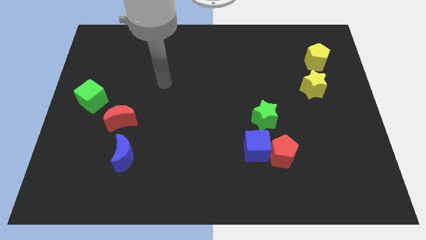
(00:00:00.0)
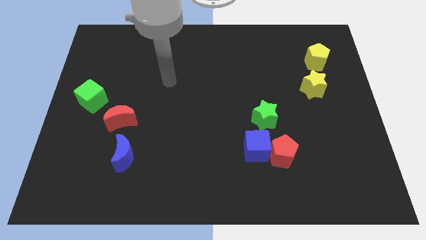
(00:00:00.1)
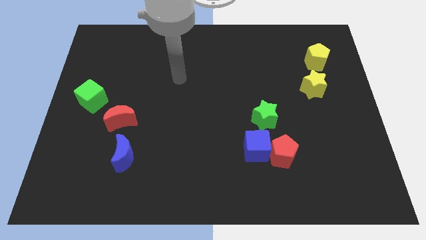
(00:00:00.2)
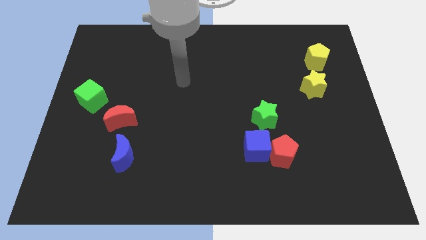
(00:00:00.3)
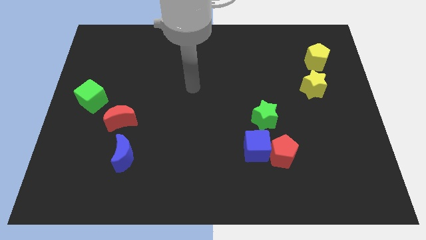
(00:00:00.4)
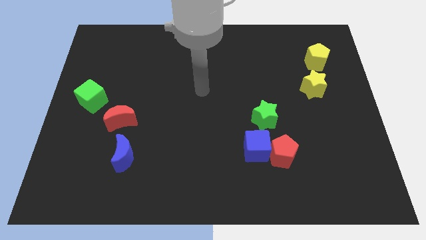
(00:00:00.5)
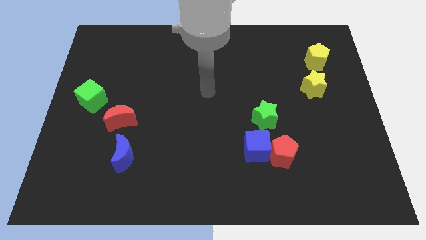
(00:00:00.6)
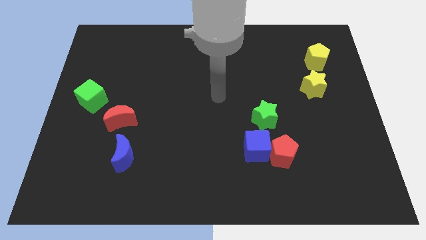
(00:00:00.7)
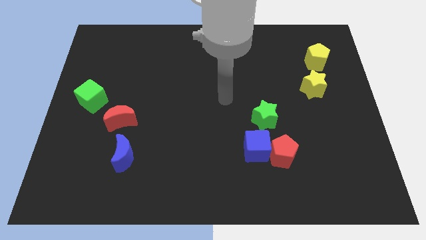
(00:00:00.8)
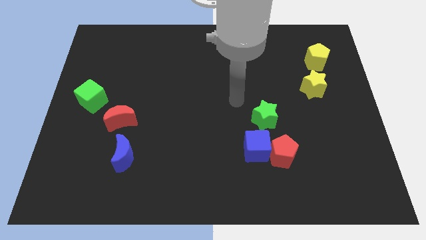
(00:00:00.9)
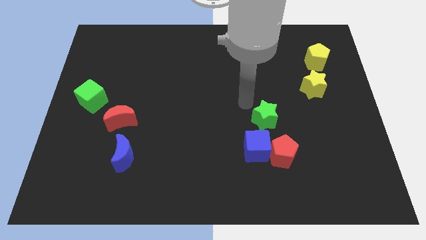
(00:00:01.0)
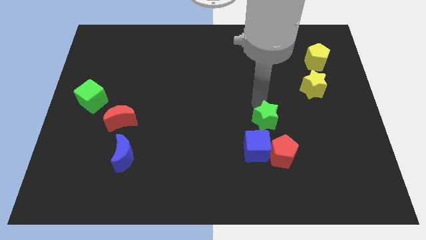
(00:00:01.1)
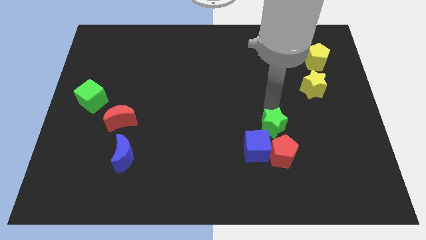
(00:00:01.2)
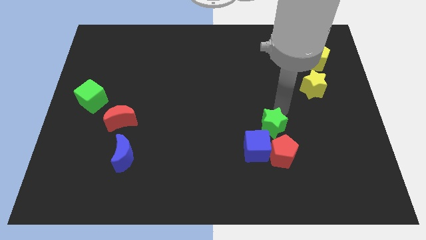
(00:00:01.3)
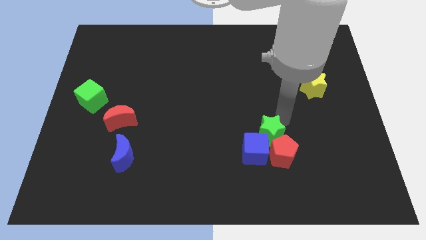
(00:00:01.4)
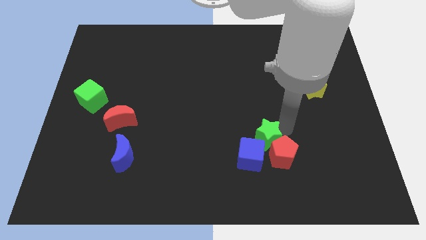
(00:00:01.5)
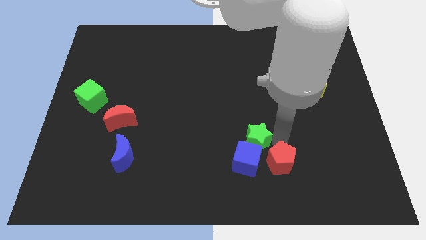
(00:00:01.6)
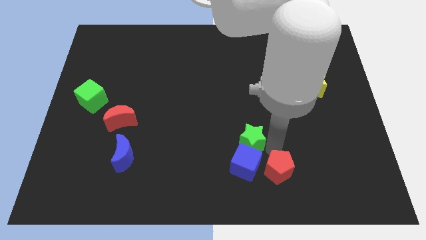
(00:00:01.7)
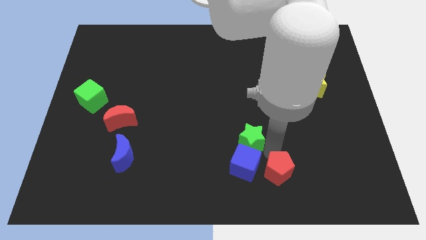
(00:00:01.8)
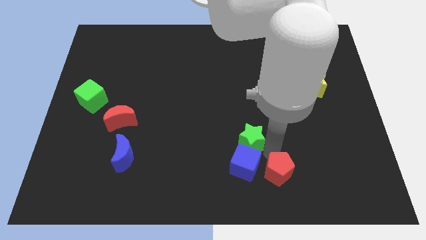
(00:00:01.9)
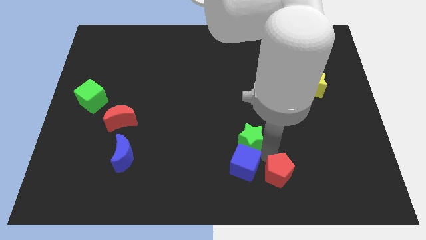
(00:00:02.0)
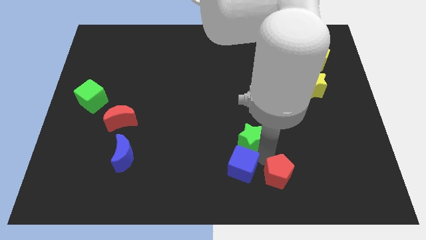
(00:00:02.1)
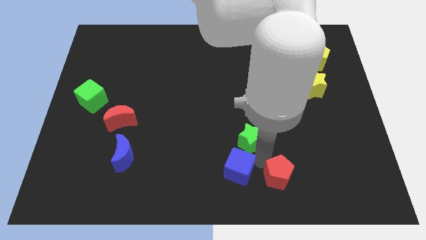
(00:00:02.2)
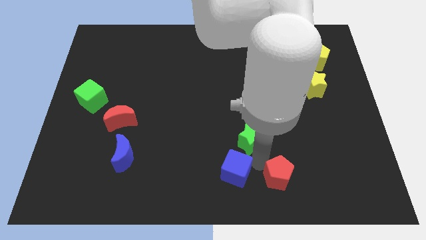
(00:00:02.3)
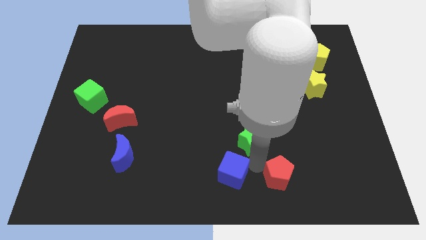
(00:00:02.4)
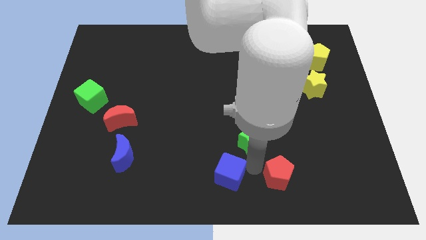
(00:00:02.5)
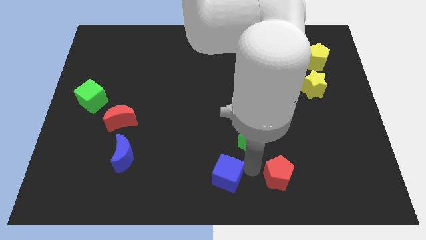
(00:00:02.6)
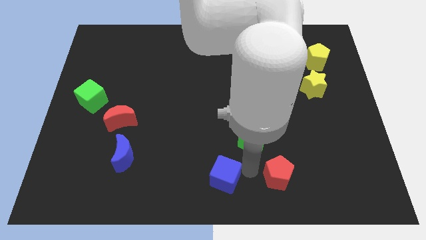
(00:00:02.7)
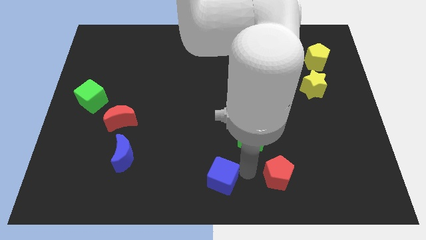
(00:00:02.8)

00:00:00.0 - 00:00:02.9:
pull the blue cube apart from the red pentagon and green star

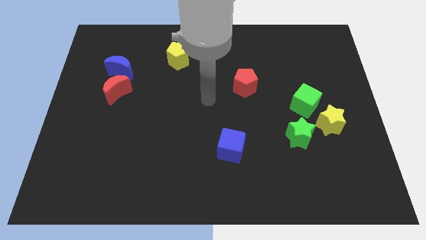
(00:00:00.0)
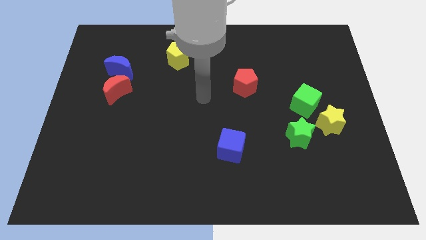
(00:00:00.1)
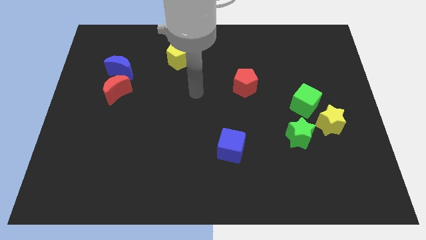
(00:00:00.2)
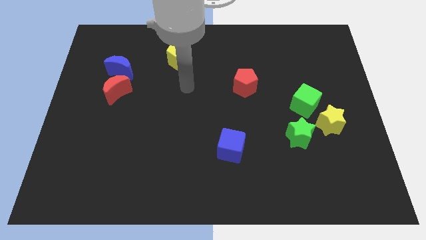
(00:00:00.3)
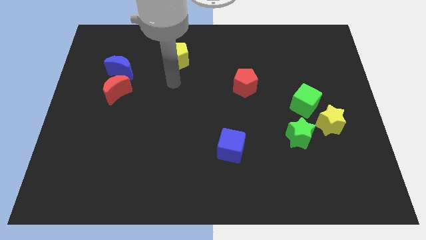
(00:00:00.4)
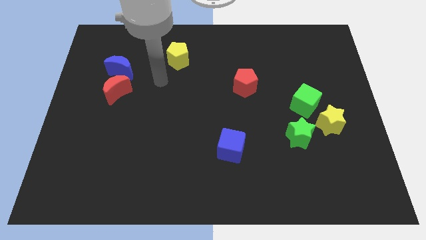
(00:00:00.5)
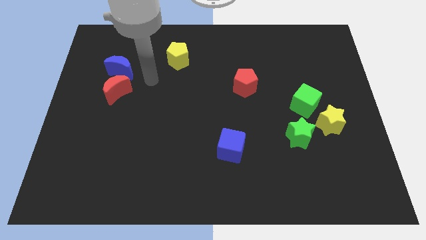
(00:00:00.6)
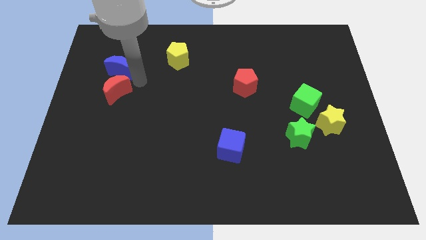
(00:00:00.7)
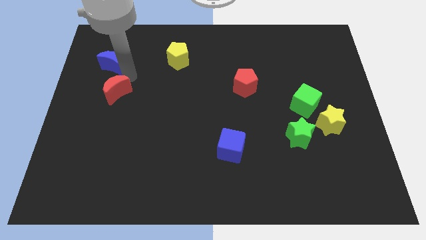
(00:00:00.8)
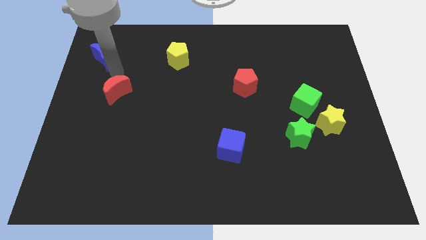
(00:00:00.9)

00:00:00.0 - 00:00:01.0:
pull the red moon apart from the blue moon

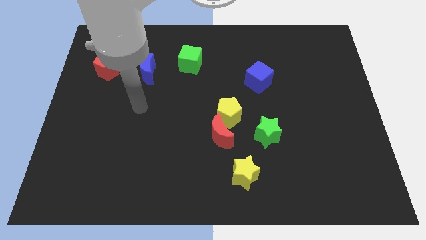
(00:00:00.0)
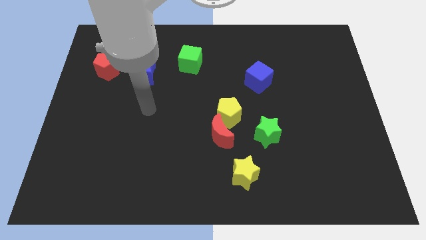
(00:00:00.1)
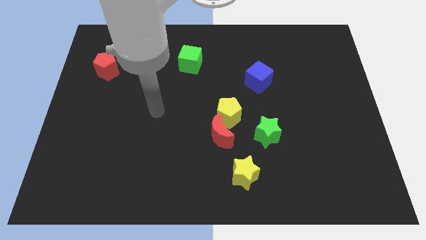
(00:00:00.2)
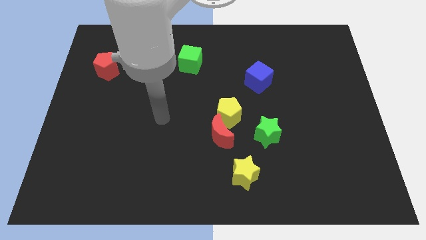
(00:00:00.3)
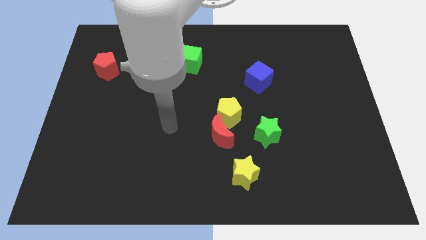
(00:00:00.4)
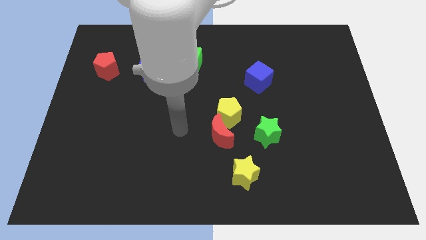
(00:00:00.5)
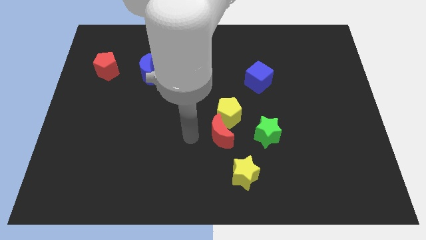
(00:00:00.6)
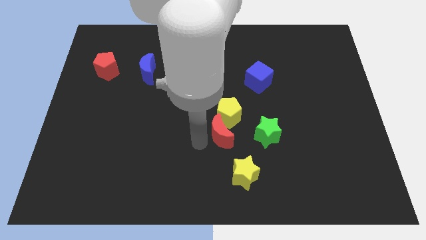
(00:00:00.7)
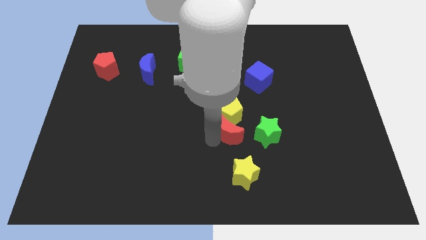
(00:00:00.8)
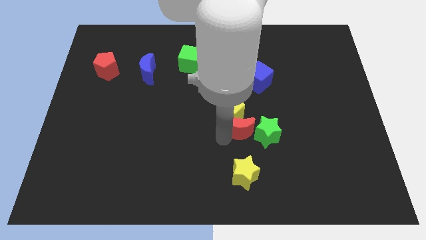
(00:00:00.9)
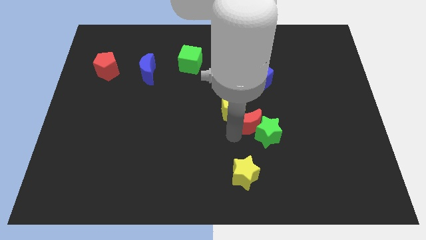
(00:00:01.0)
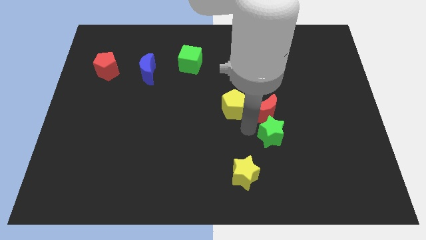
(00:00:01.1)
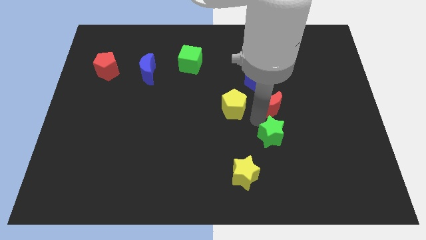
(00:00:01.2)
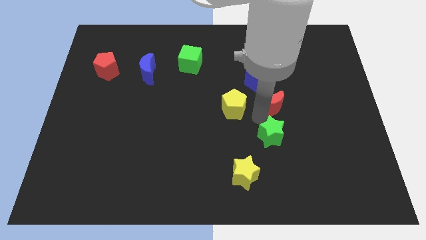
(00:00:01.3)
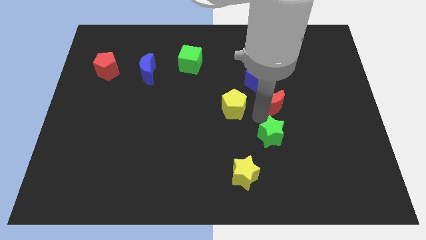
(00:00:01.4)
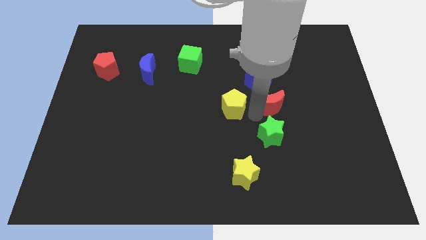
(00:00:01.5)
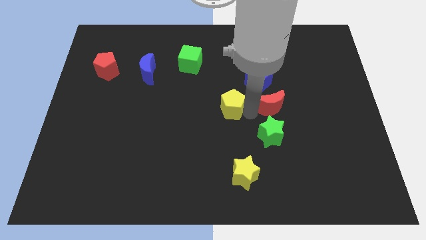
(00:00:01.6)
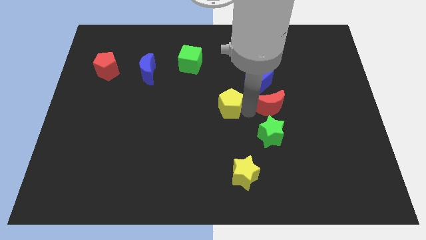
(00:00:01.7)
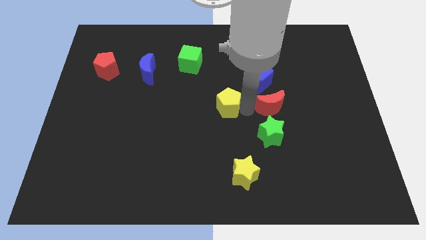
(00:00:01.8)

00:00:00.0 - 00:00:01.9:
pull the yellow pentagon apart from the red moon and green star

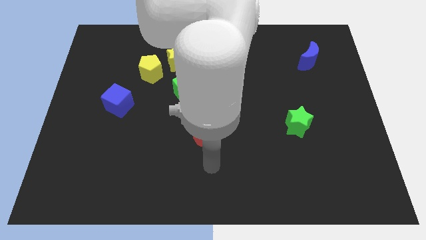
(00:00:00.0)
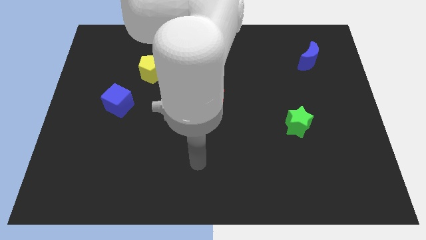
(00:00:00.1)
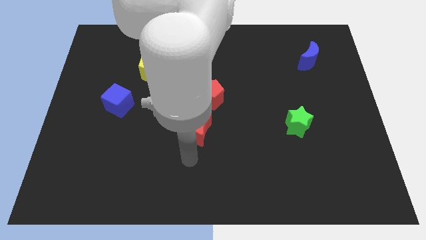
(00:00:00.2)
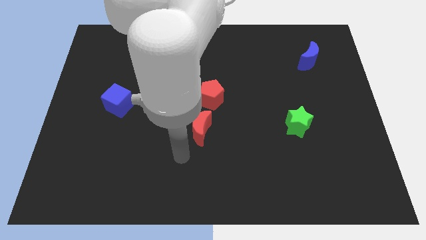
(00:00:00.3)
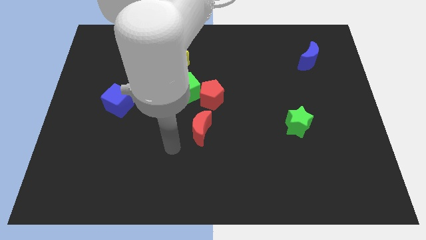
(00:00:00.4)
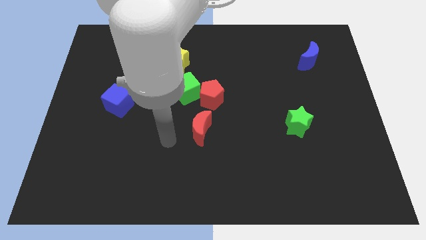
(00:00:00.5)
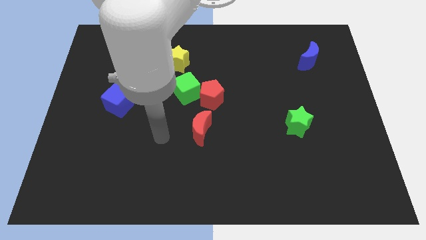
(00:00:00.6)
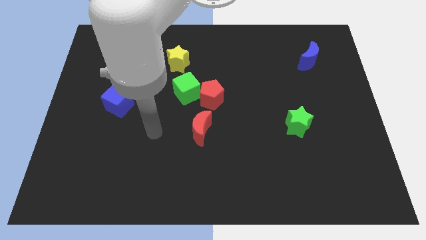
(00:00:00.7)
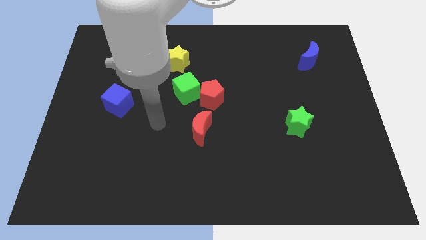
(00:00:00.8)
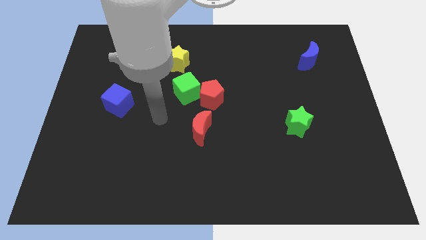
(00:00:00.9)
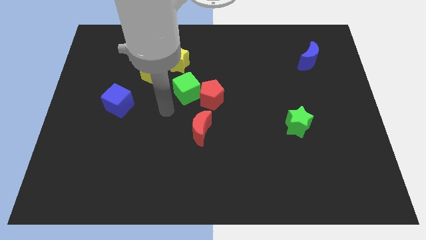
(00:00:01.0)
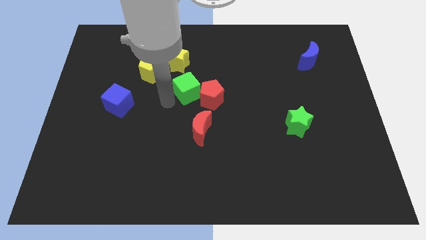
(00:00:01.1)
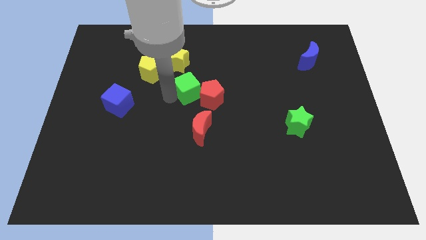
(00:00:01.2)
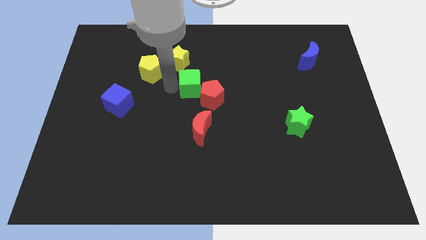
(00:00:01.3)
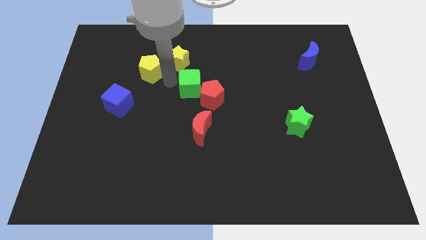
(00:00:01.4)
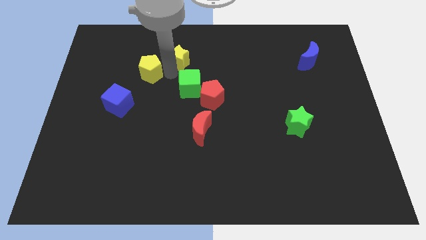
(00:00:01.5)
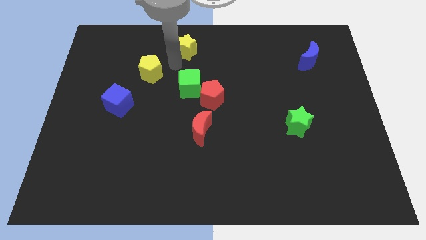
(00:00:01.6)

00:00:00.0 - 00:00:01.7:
separate the yellow pentagon from the yellow star

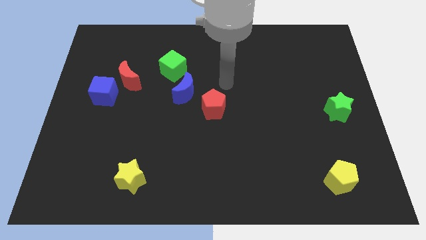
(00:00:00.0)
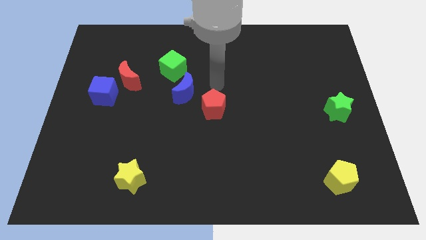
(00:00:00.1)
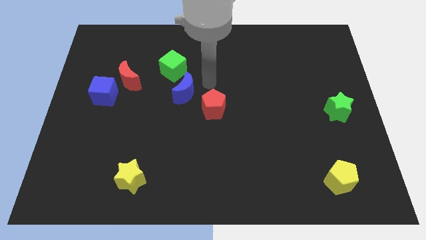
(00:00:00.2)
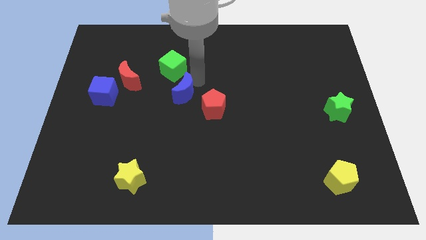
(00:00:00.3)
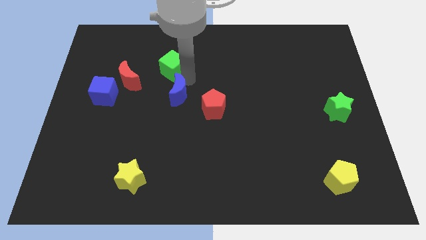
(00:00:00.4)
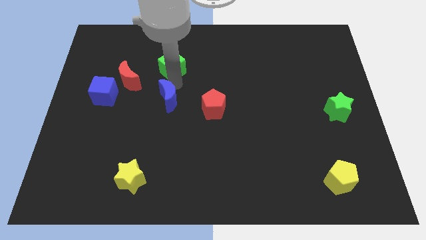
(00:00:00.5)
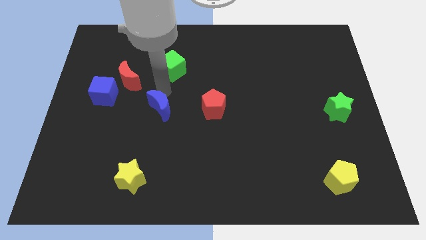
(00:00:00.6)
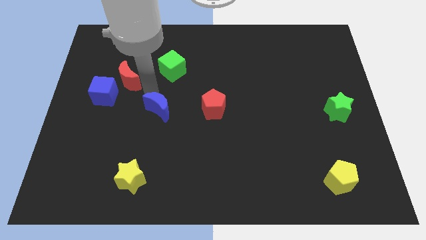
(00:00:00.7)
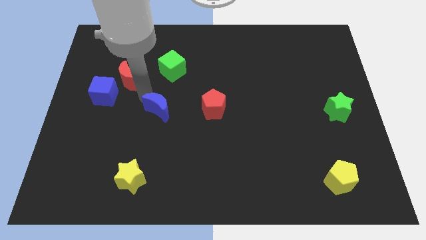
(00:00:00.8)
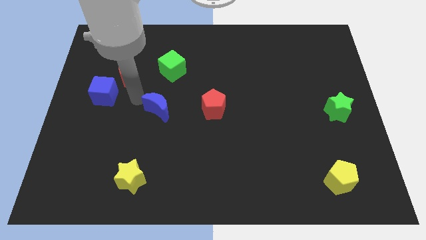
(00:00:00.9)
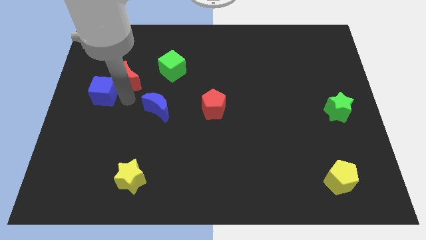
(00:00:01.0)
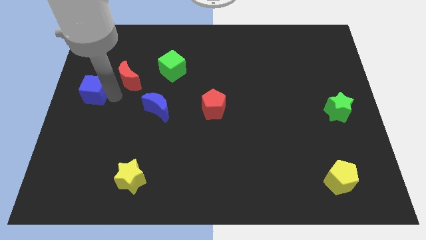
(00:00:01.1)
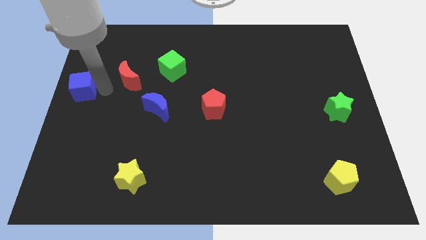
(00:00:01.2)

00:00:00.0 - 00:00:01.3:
move the red moon away from the blue cube

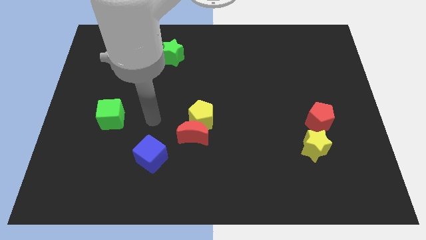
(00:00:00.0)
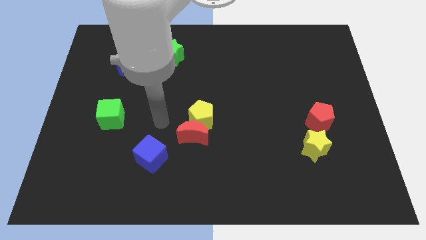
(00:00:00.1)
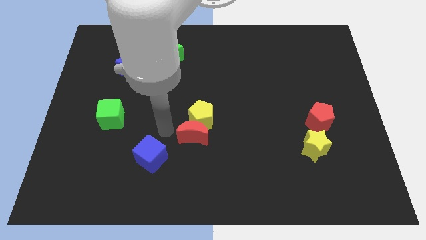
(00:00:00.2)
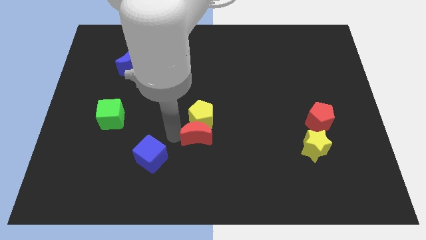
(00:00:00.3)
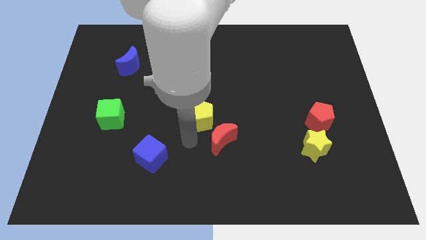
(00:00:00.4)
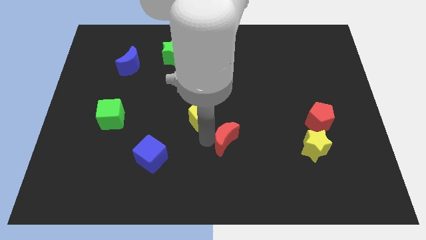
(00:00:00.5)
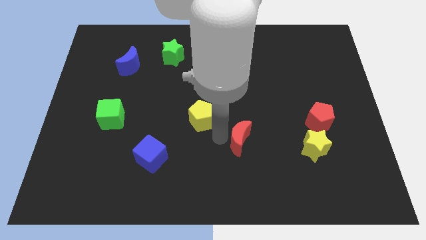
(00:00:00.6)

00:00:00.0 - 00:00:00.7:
pull the yellow pentagon apart from the red moon
